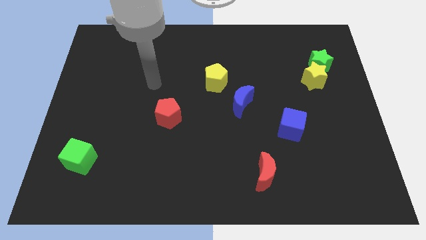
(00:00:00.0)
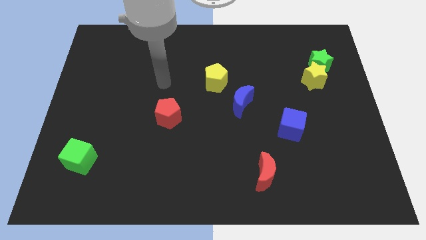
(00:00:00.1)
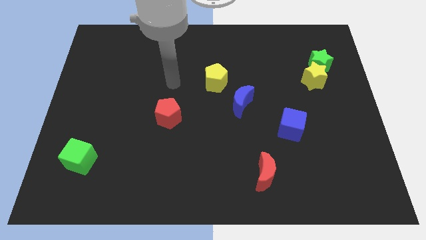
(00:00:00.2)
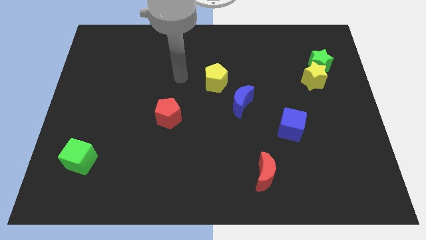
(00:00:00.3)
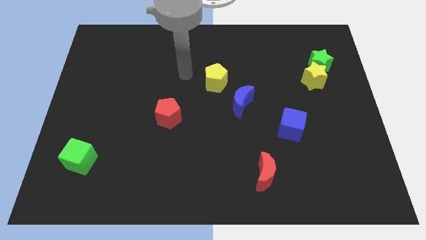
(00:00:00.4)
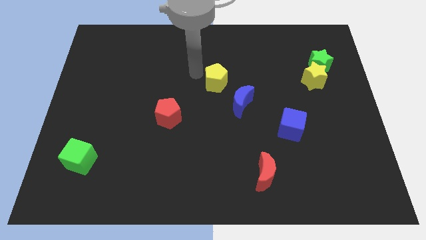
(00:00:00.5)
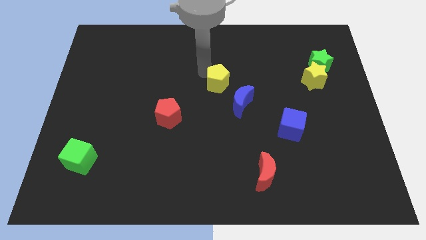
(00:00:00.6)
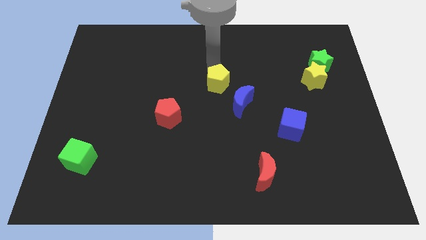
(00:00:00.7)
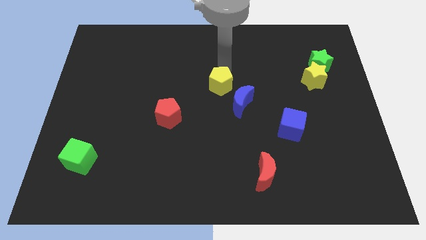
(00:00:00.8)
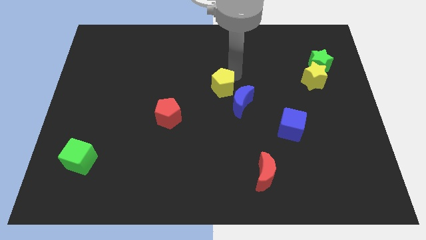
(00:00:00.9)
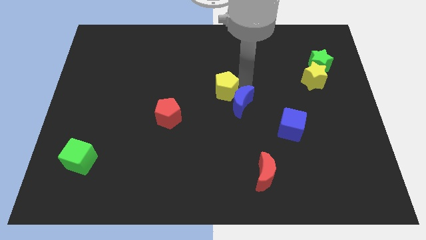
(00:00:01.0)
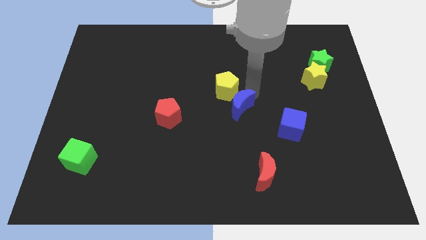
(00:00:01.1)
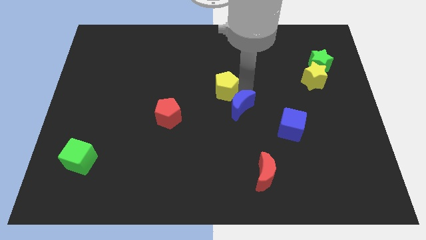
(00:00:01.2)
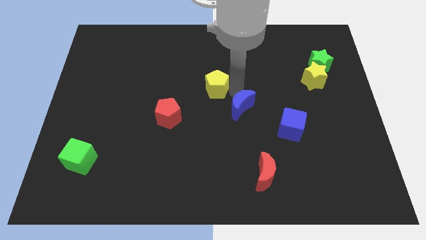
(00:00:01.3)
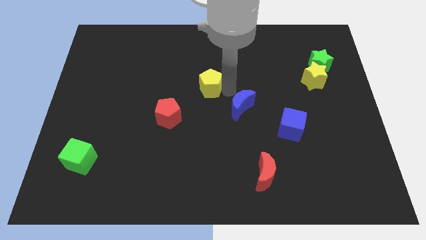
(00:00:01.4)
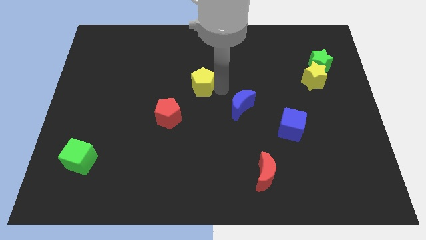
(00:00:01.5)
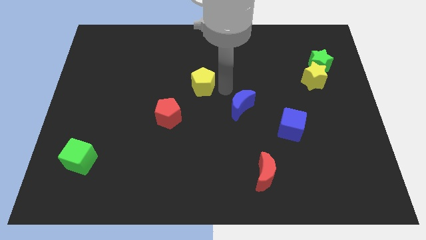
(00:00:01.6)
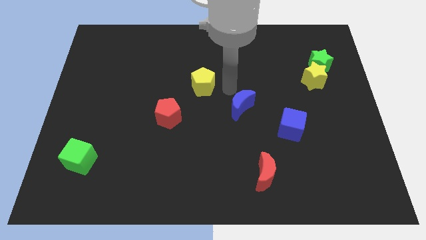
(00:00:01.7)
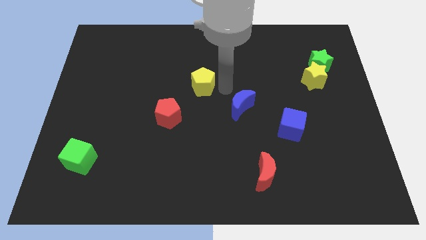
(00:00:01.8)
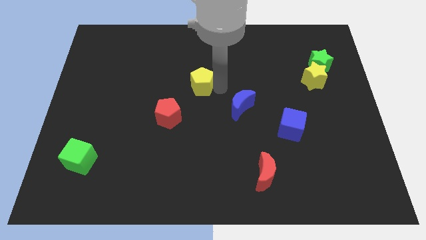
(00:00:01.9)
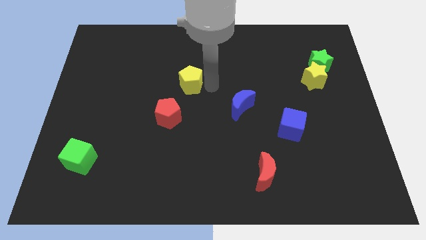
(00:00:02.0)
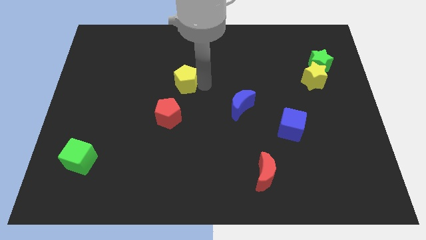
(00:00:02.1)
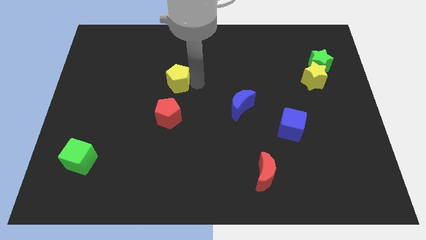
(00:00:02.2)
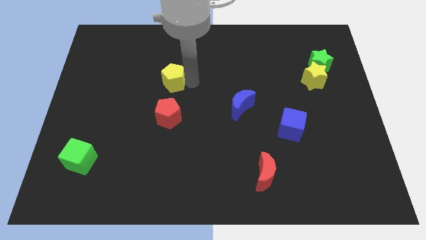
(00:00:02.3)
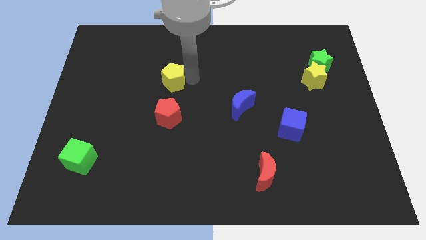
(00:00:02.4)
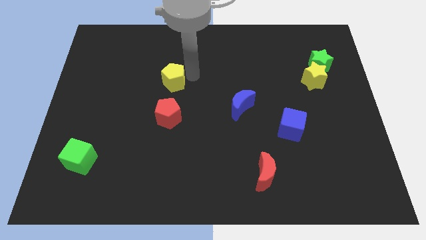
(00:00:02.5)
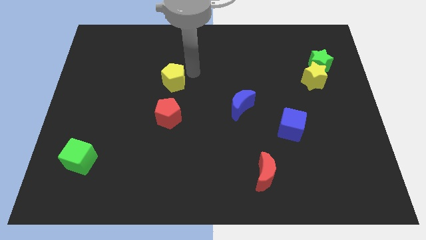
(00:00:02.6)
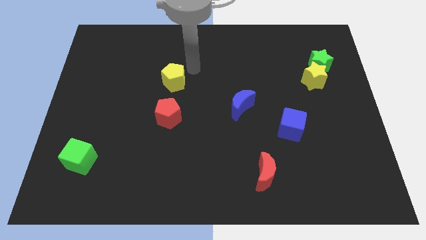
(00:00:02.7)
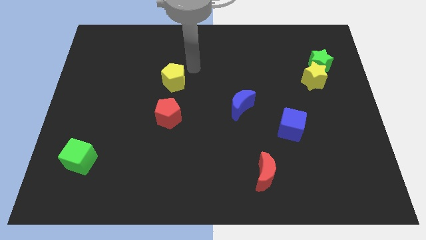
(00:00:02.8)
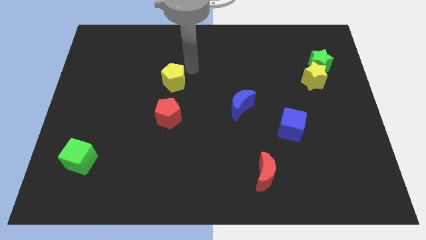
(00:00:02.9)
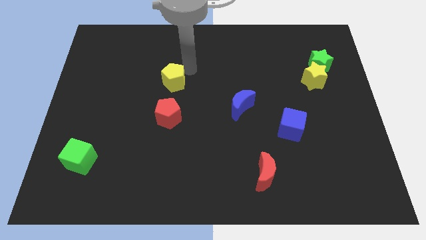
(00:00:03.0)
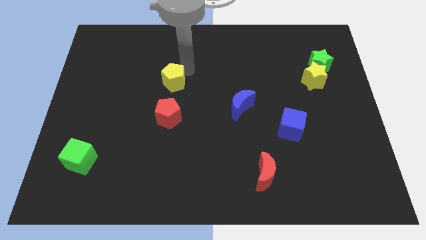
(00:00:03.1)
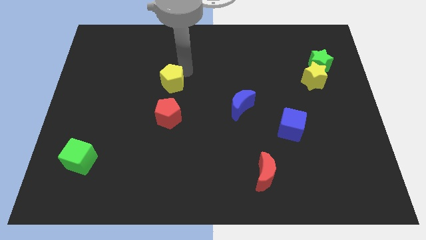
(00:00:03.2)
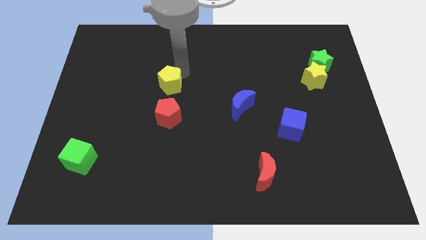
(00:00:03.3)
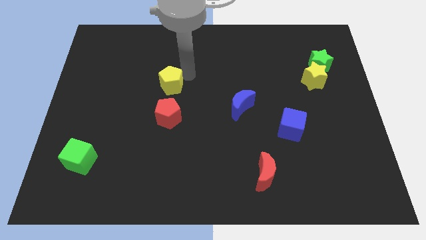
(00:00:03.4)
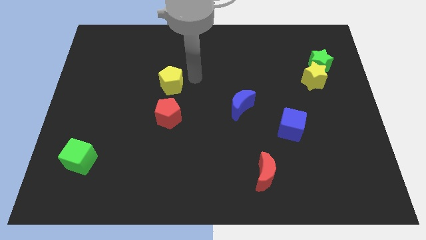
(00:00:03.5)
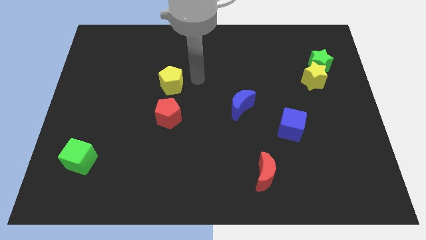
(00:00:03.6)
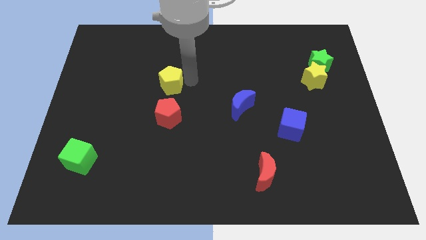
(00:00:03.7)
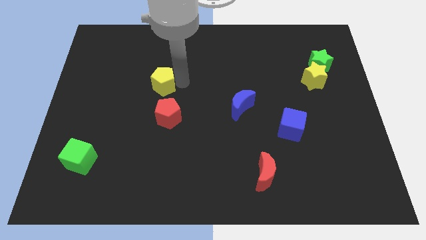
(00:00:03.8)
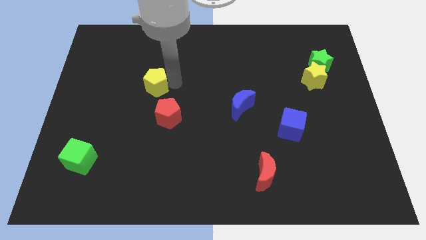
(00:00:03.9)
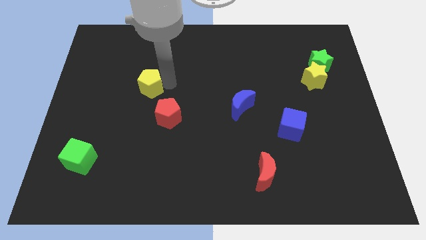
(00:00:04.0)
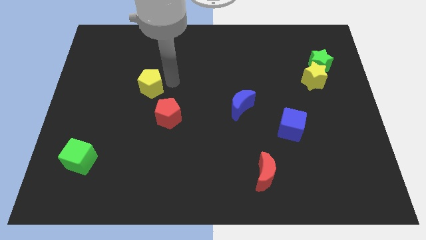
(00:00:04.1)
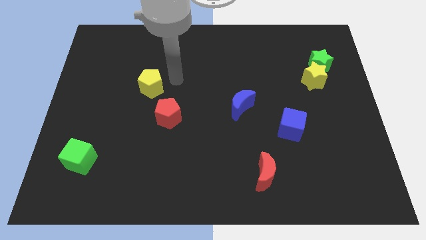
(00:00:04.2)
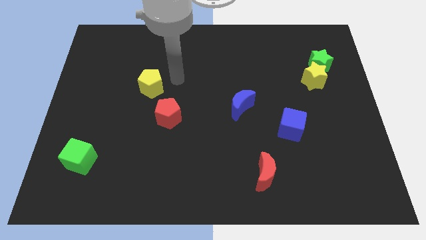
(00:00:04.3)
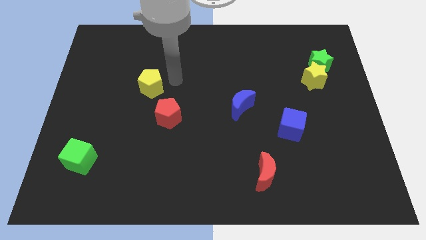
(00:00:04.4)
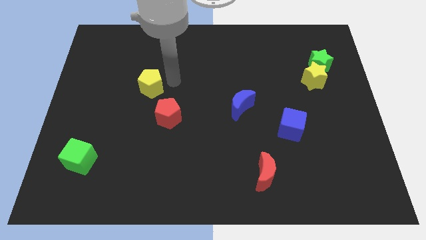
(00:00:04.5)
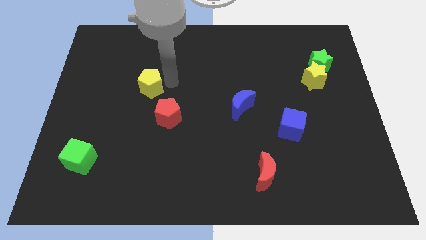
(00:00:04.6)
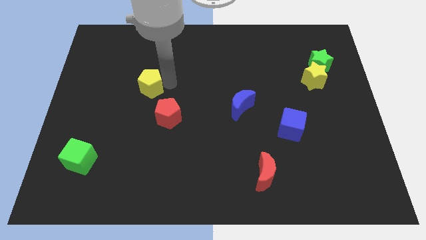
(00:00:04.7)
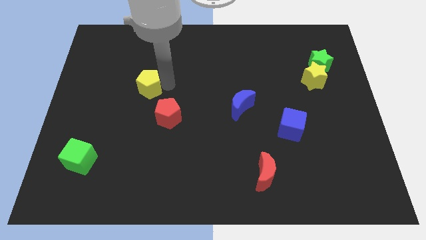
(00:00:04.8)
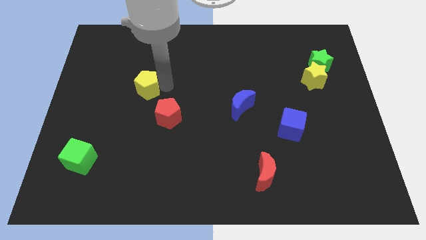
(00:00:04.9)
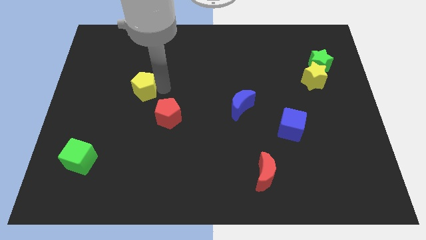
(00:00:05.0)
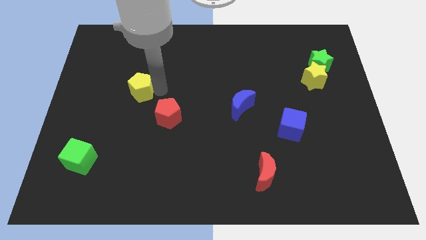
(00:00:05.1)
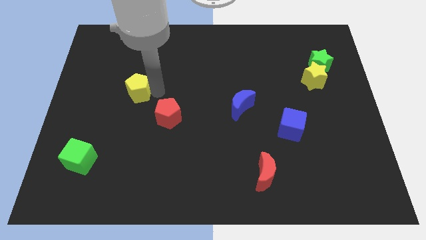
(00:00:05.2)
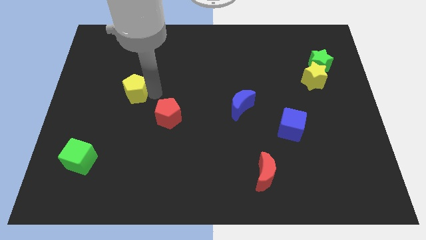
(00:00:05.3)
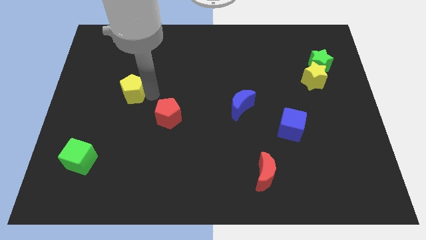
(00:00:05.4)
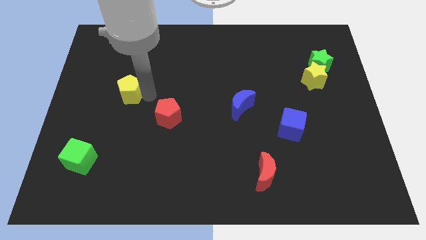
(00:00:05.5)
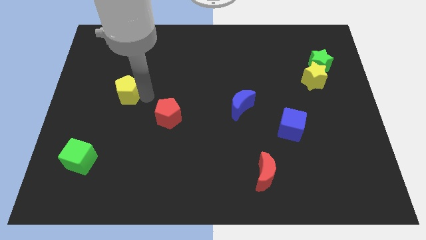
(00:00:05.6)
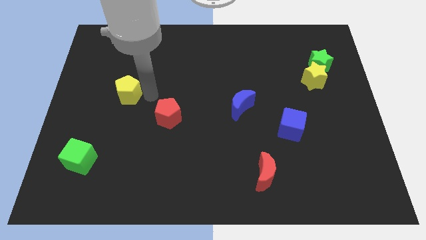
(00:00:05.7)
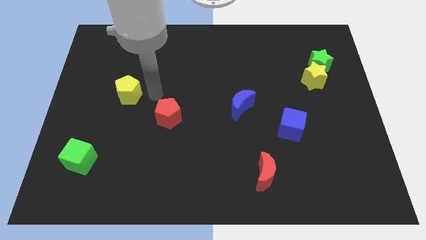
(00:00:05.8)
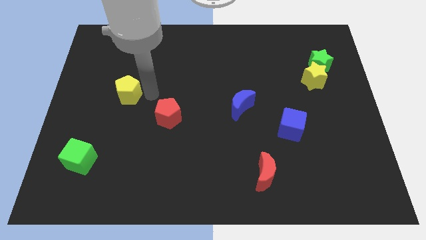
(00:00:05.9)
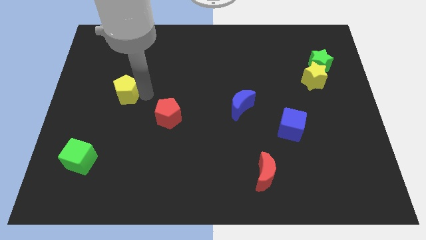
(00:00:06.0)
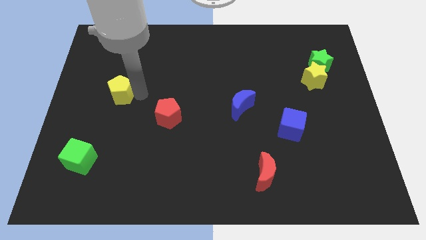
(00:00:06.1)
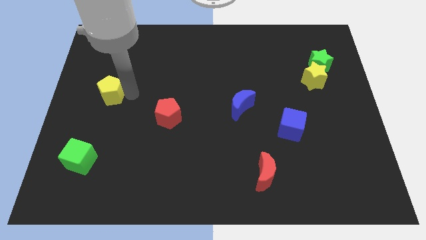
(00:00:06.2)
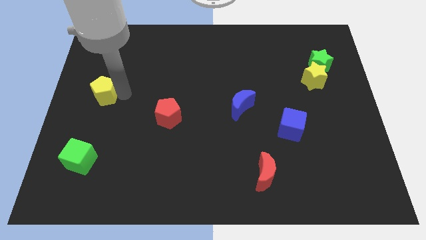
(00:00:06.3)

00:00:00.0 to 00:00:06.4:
put the yellow pentagon to the center left

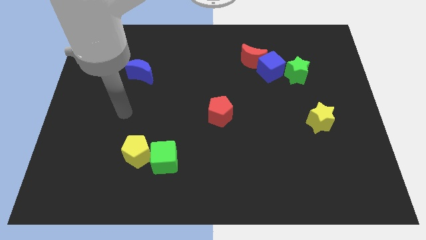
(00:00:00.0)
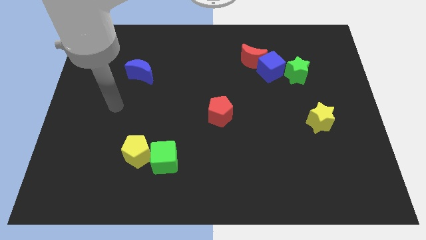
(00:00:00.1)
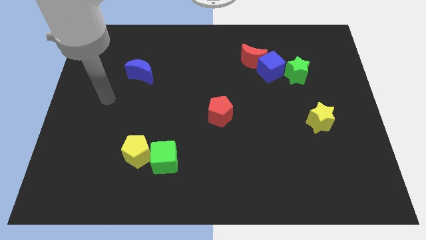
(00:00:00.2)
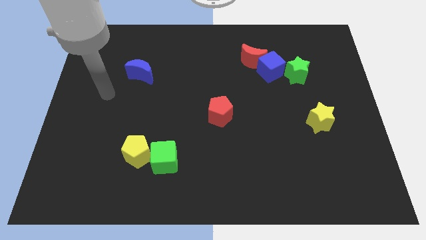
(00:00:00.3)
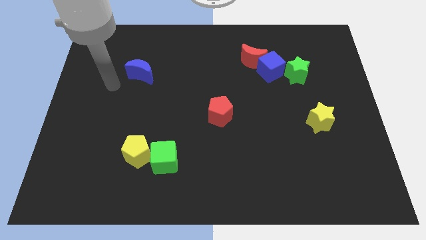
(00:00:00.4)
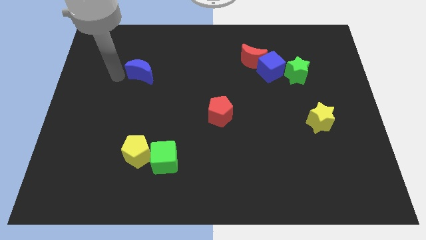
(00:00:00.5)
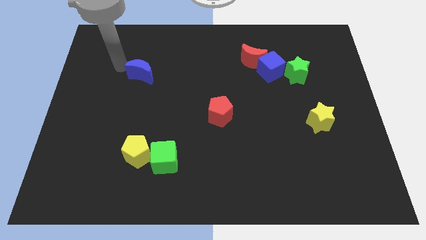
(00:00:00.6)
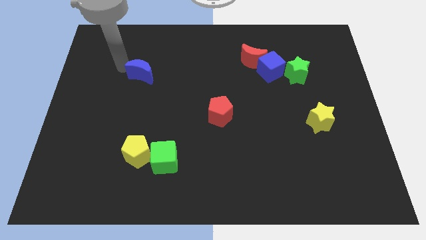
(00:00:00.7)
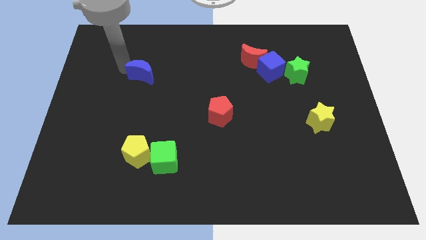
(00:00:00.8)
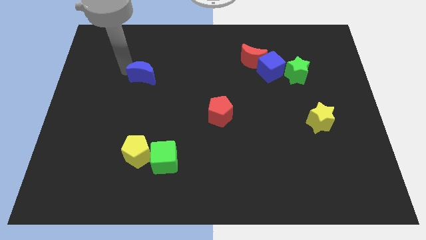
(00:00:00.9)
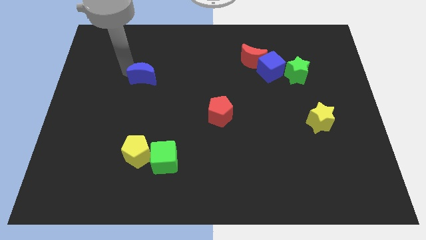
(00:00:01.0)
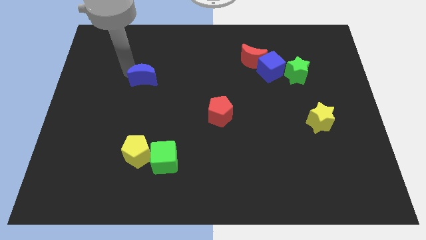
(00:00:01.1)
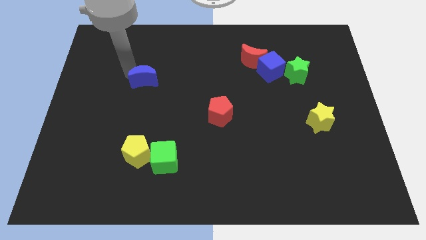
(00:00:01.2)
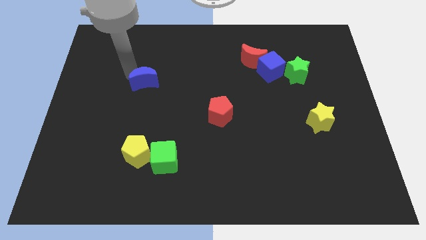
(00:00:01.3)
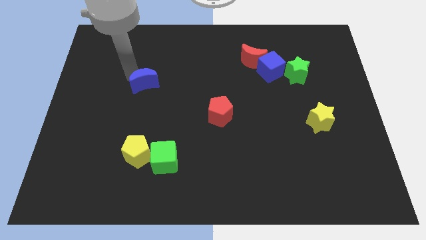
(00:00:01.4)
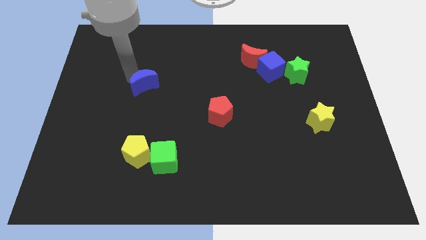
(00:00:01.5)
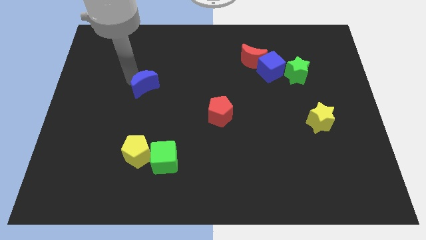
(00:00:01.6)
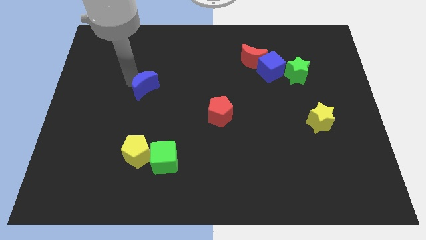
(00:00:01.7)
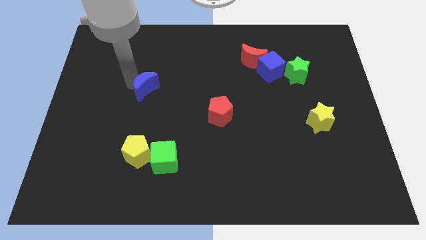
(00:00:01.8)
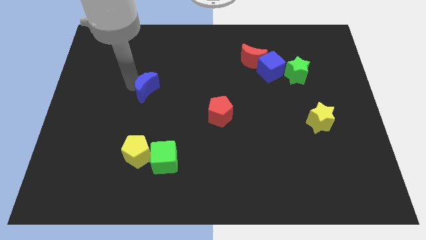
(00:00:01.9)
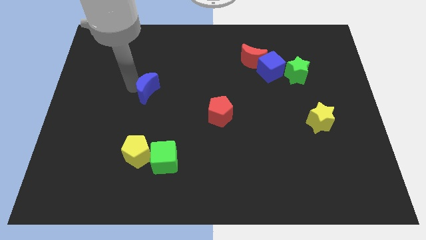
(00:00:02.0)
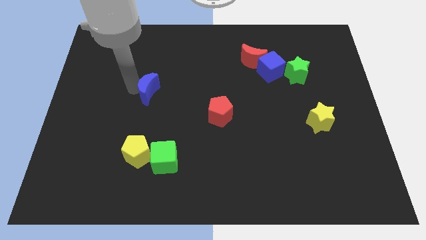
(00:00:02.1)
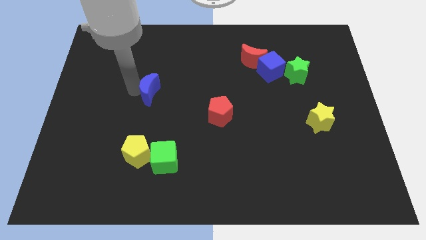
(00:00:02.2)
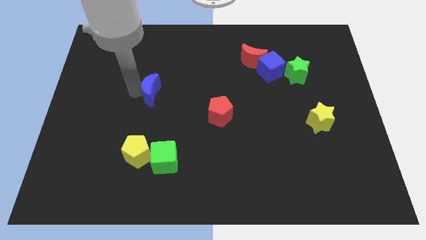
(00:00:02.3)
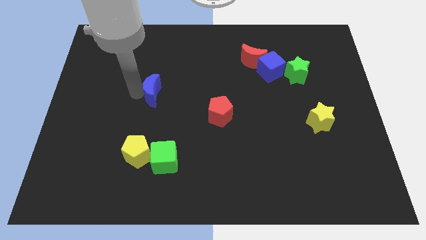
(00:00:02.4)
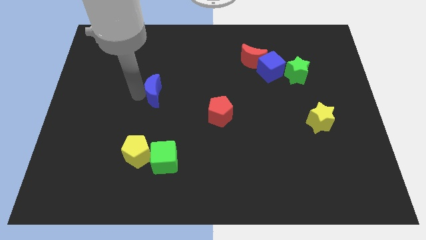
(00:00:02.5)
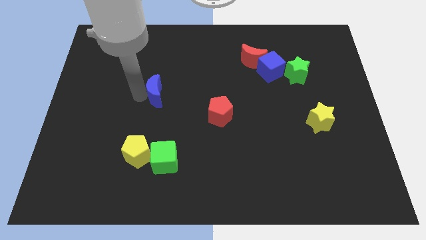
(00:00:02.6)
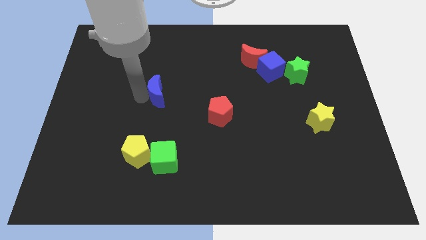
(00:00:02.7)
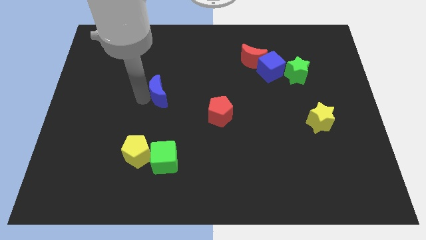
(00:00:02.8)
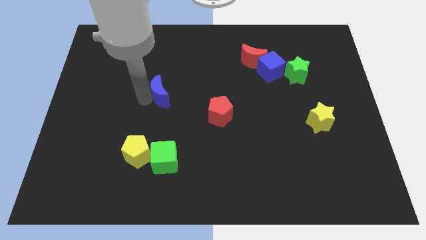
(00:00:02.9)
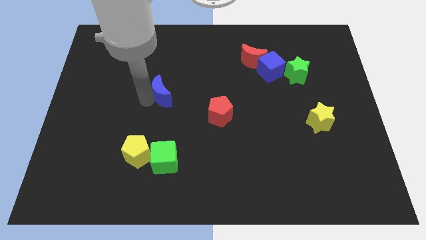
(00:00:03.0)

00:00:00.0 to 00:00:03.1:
put the blue moon to the middle
